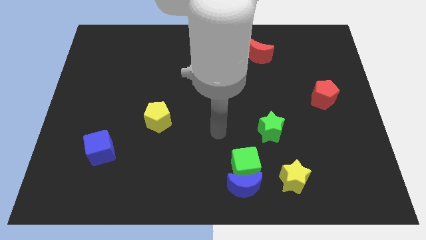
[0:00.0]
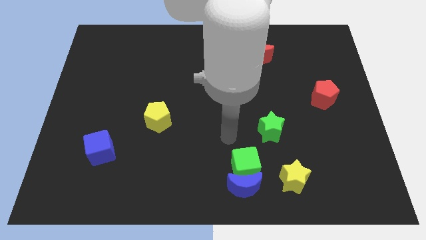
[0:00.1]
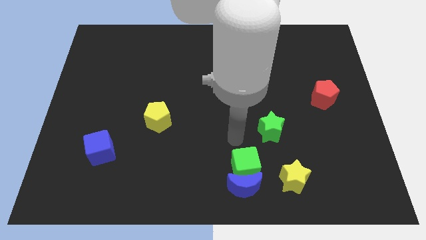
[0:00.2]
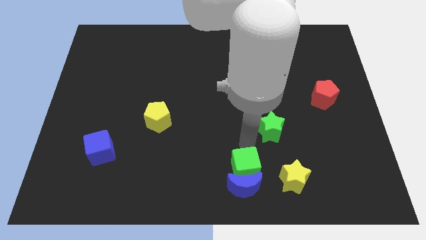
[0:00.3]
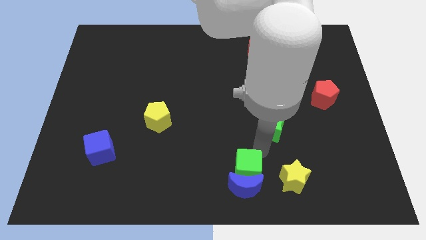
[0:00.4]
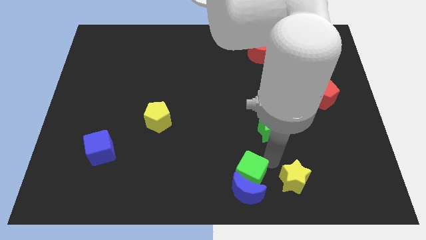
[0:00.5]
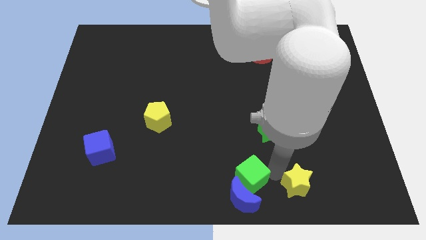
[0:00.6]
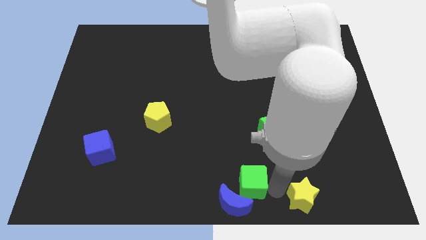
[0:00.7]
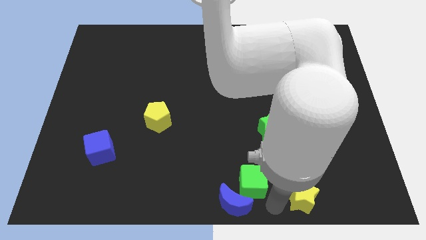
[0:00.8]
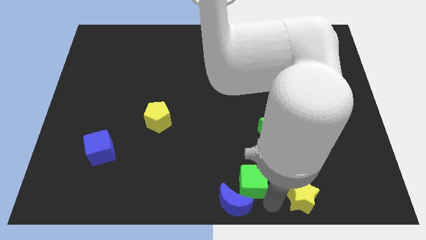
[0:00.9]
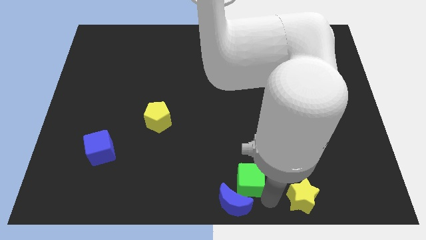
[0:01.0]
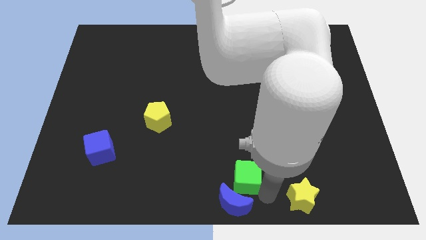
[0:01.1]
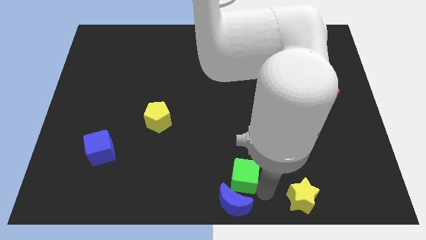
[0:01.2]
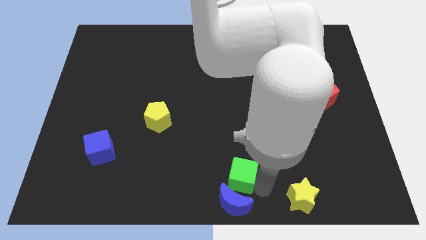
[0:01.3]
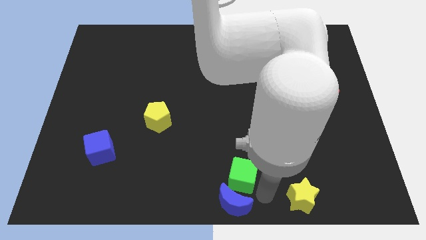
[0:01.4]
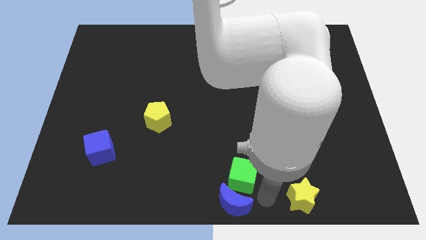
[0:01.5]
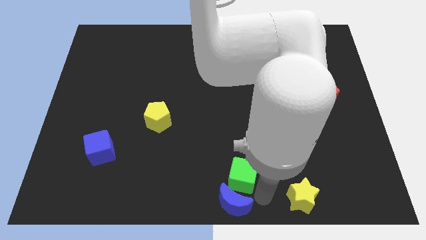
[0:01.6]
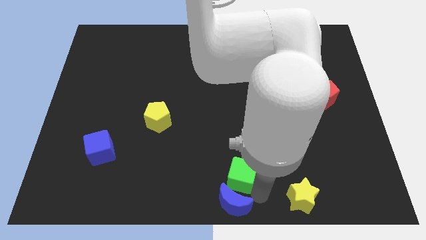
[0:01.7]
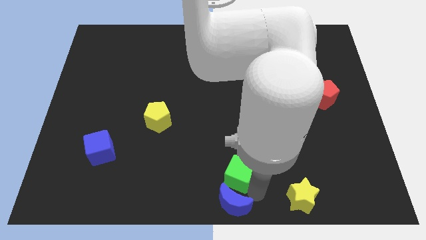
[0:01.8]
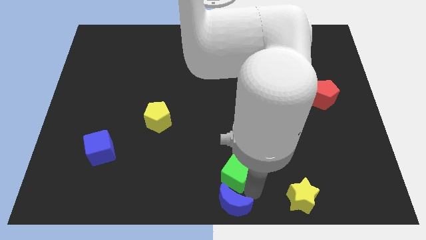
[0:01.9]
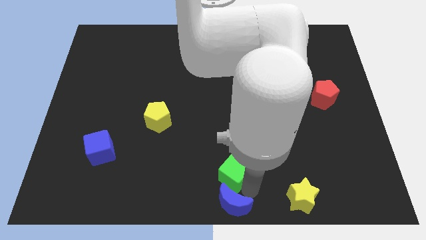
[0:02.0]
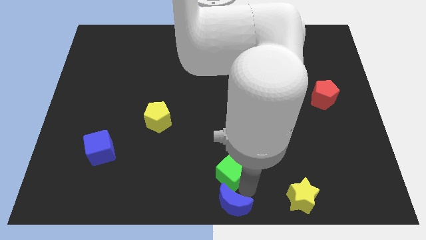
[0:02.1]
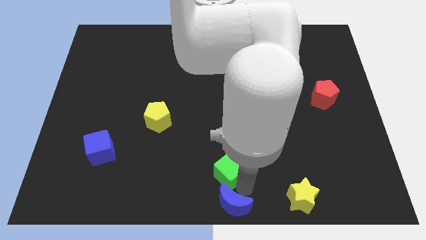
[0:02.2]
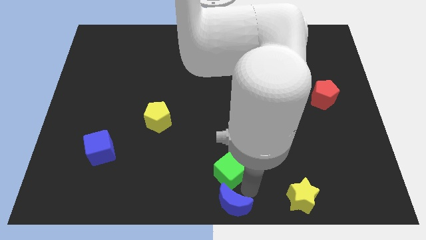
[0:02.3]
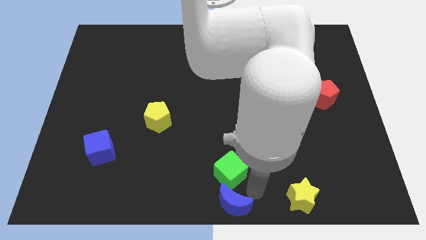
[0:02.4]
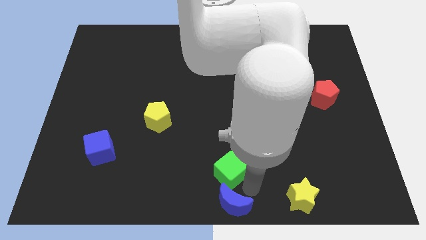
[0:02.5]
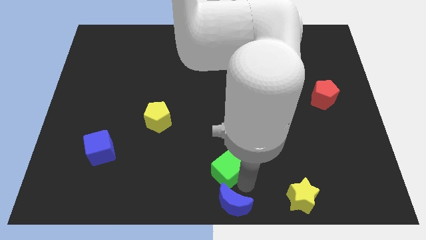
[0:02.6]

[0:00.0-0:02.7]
pull the green cube apart from the blue moon and yellow star

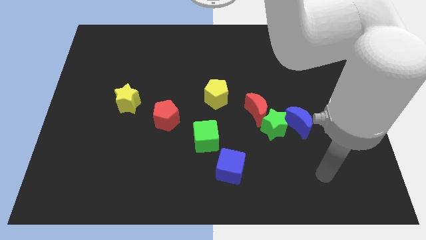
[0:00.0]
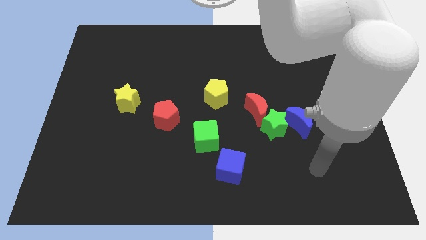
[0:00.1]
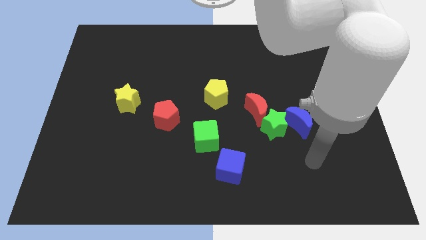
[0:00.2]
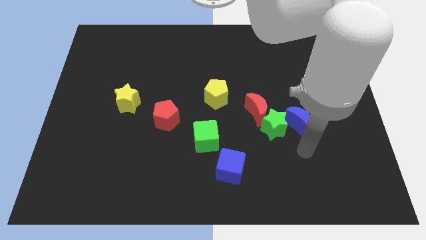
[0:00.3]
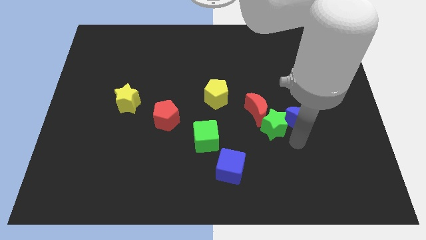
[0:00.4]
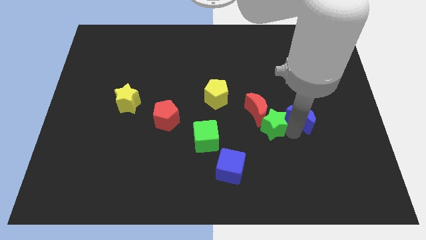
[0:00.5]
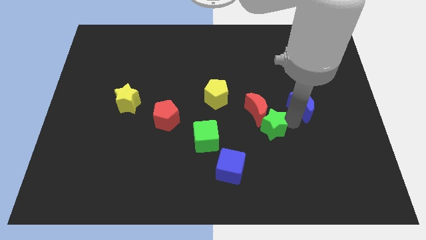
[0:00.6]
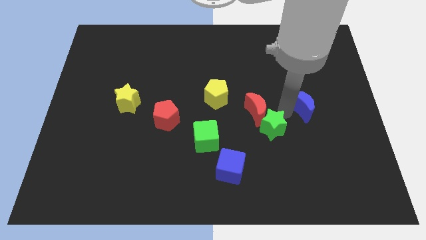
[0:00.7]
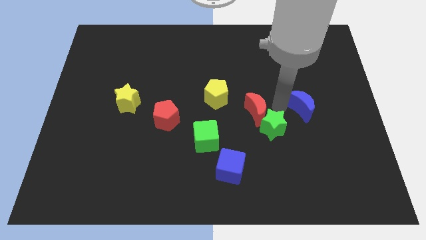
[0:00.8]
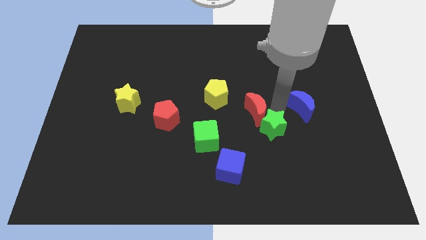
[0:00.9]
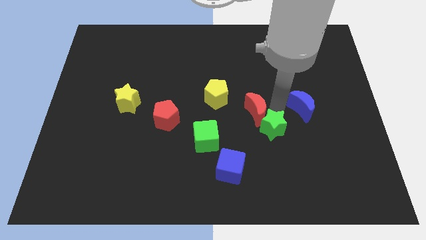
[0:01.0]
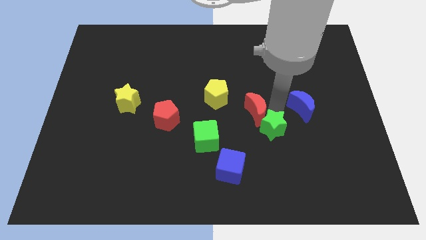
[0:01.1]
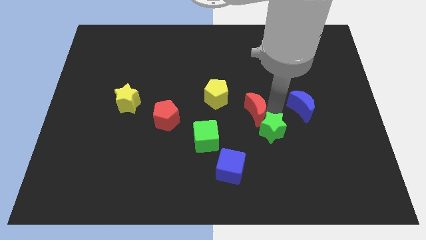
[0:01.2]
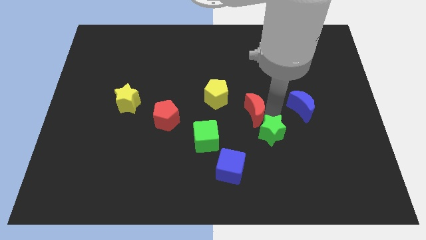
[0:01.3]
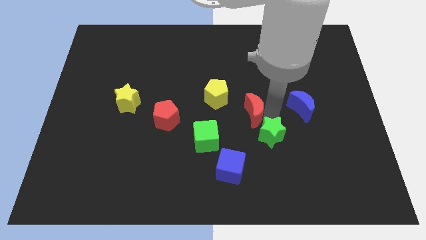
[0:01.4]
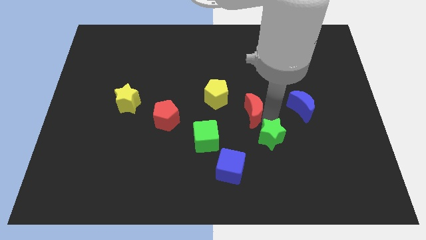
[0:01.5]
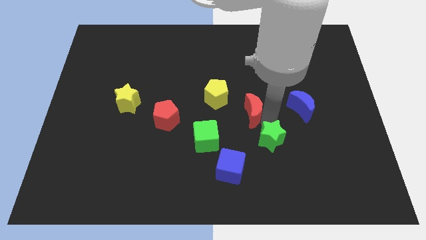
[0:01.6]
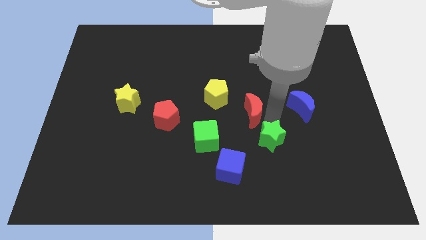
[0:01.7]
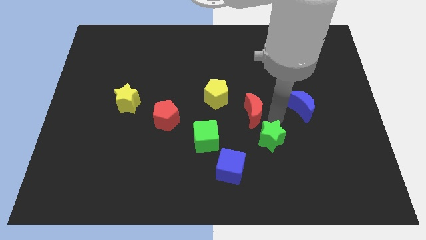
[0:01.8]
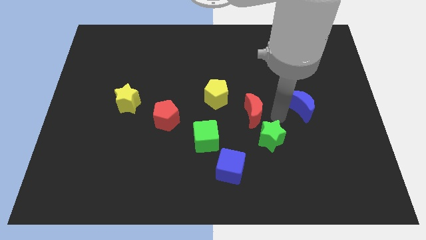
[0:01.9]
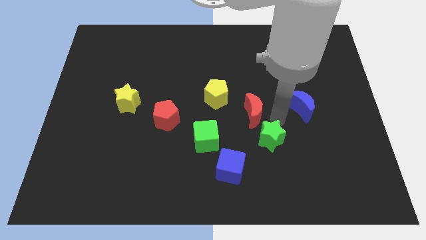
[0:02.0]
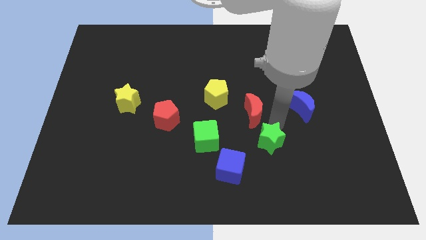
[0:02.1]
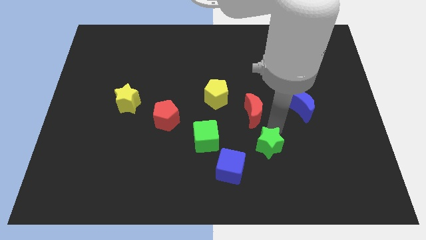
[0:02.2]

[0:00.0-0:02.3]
pull the green star apart from the blue moon and red moon

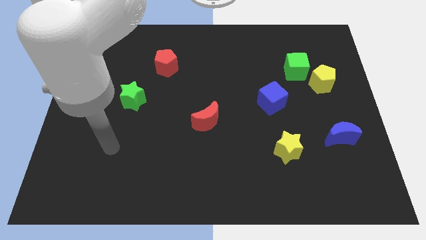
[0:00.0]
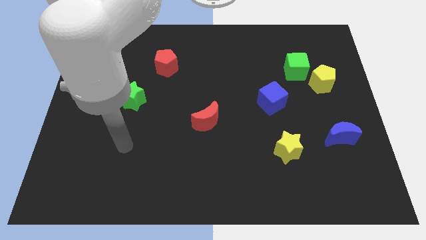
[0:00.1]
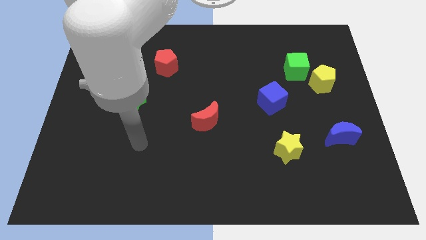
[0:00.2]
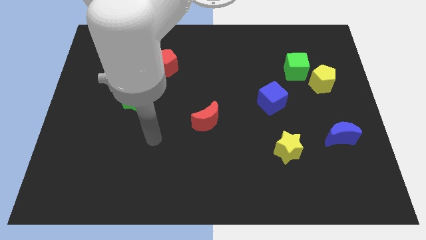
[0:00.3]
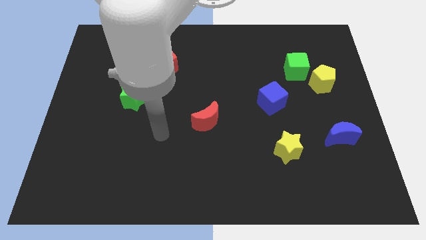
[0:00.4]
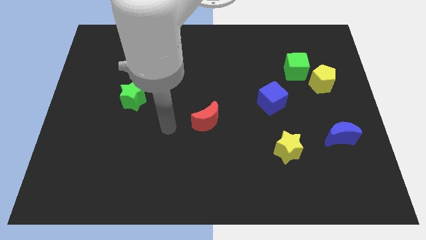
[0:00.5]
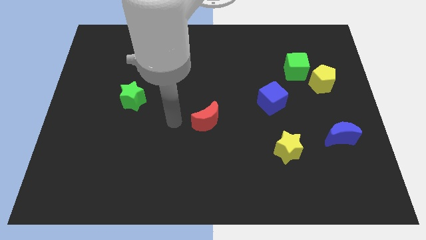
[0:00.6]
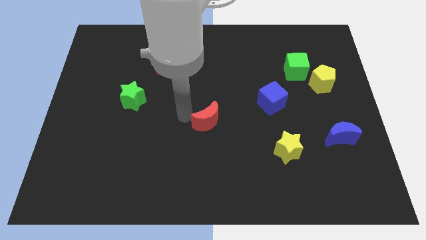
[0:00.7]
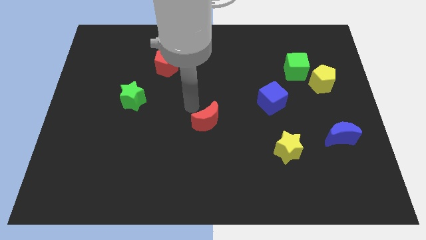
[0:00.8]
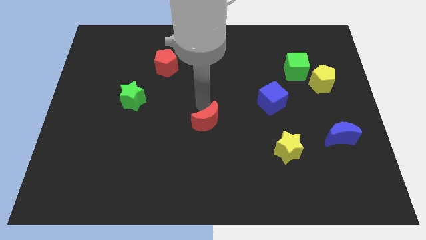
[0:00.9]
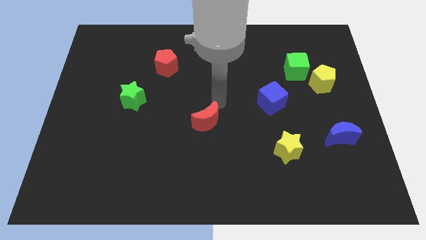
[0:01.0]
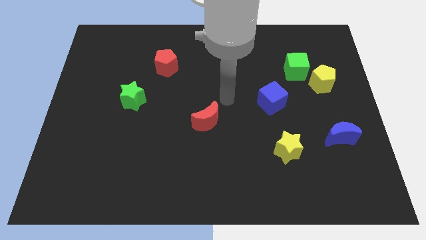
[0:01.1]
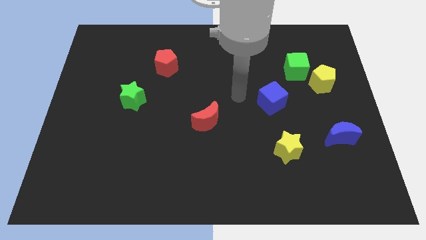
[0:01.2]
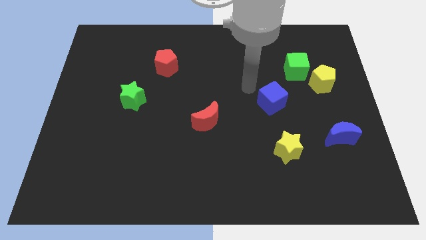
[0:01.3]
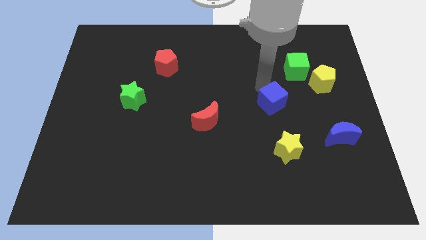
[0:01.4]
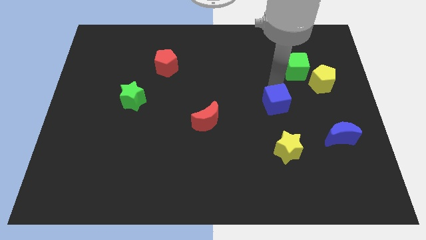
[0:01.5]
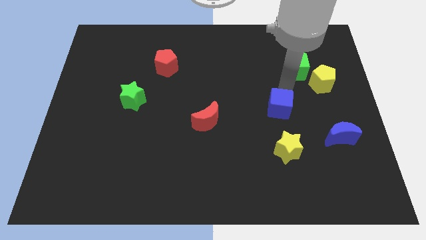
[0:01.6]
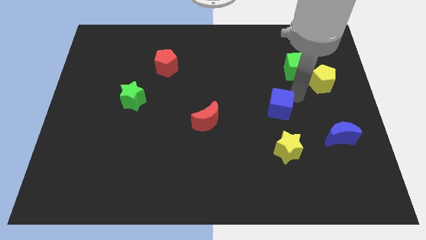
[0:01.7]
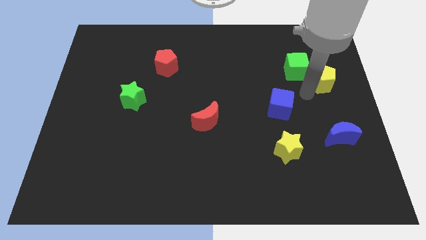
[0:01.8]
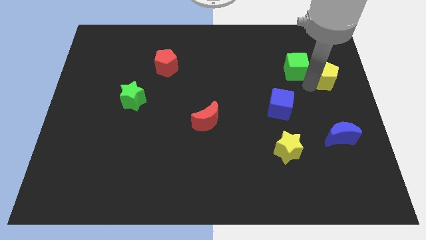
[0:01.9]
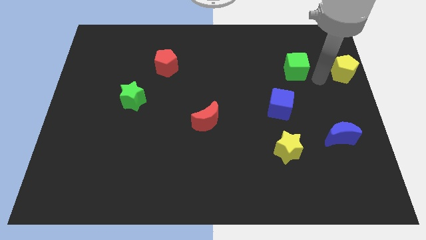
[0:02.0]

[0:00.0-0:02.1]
pull the green cube apart from the yellow pentagon

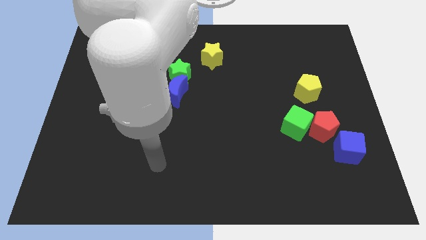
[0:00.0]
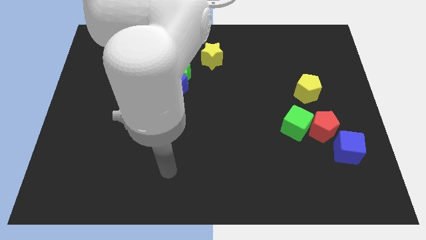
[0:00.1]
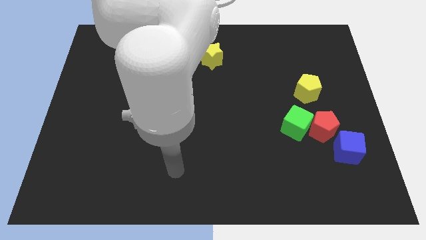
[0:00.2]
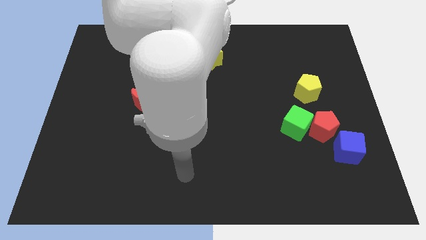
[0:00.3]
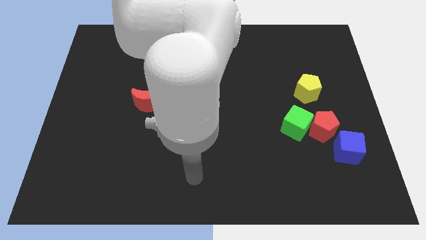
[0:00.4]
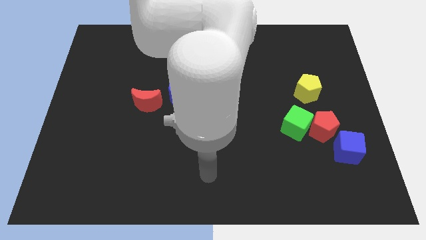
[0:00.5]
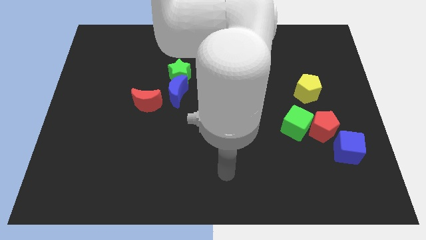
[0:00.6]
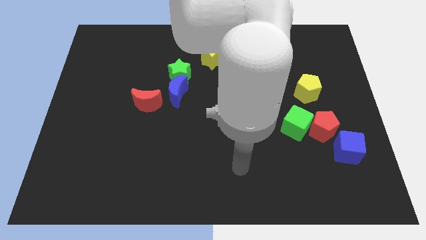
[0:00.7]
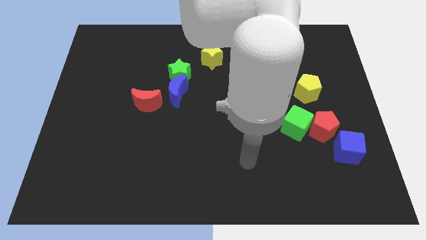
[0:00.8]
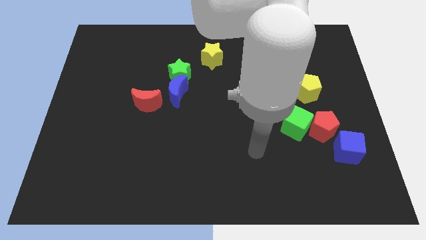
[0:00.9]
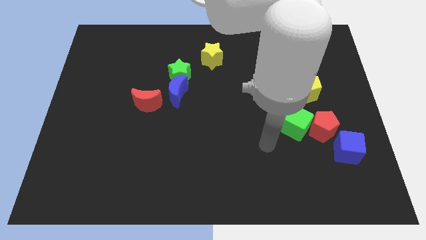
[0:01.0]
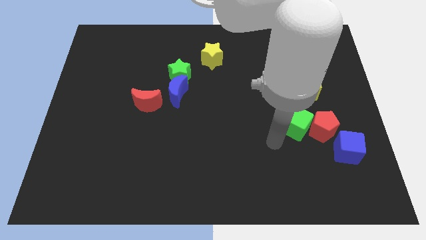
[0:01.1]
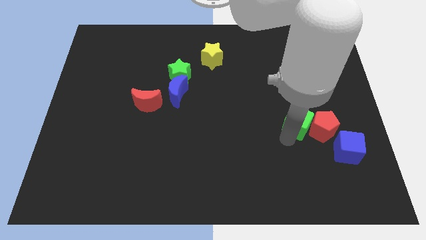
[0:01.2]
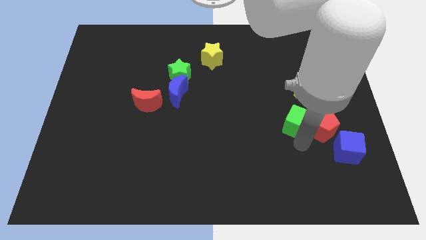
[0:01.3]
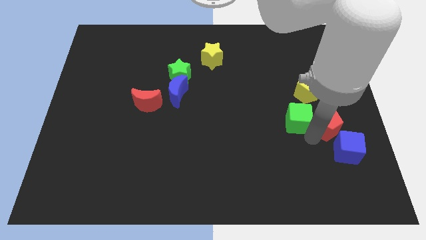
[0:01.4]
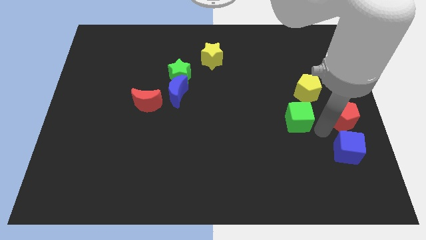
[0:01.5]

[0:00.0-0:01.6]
pull the green cube apart from the red pentagon

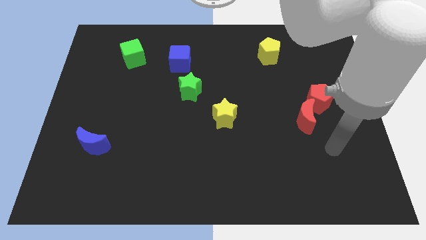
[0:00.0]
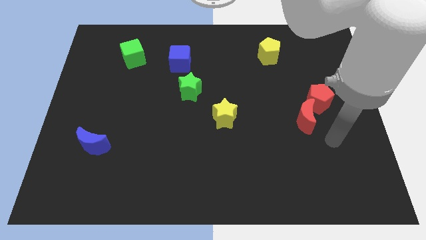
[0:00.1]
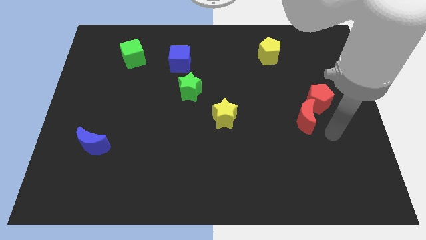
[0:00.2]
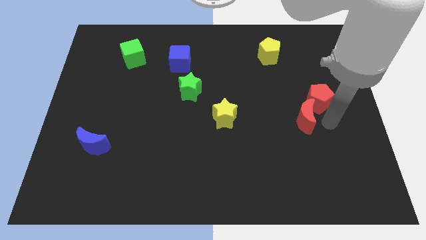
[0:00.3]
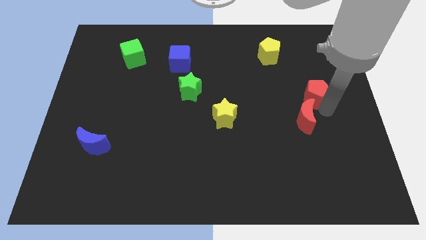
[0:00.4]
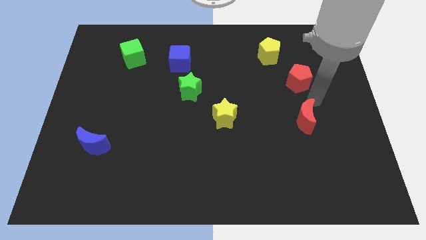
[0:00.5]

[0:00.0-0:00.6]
pull the red moon apart from the red pentagon
